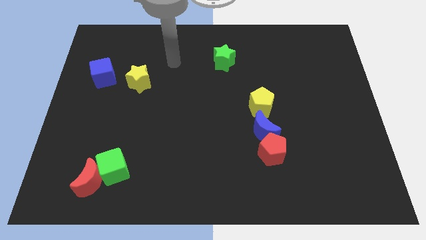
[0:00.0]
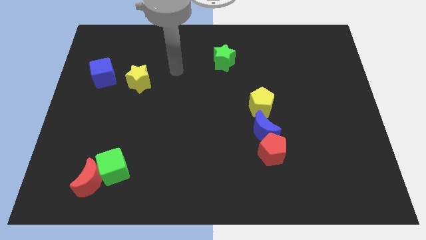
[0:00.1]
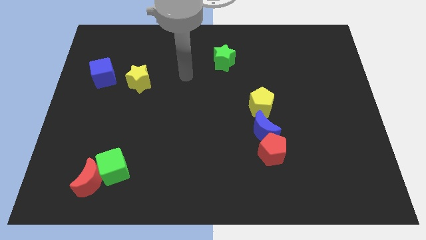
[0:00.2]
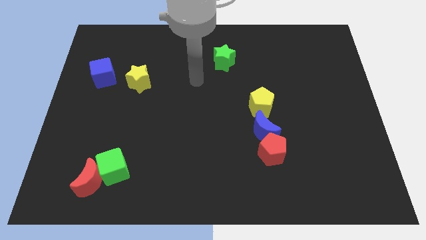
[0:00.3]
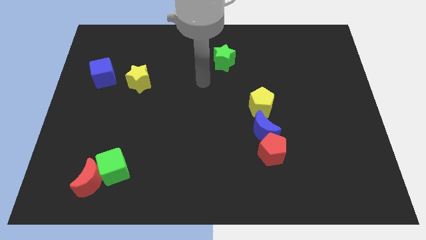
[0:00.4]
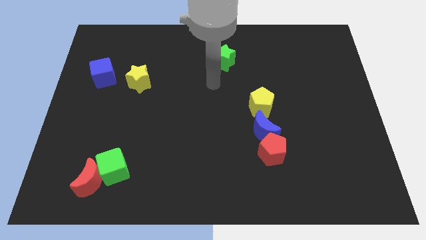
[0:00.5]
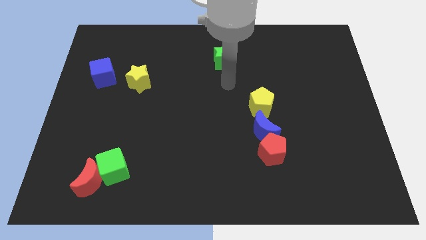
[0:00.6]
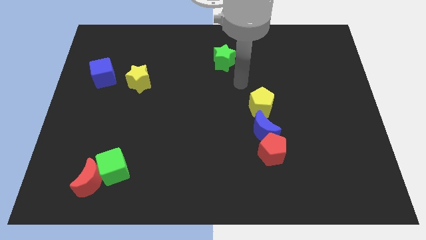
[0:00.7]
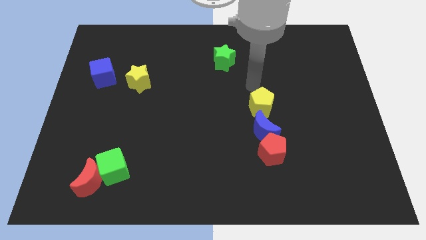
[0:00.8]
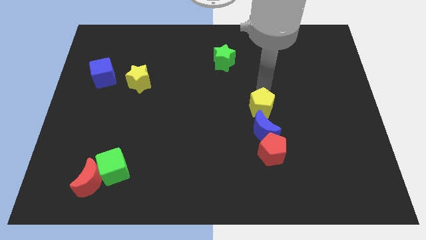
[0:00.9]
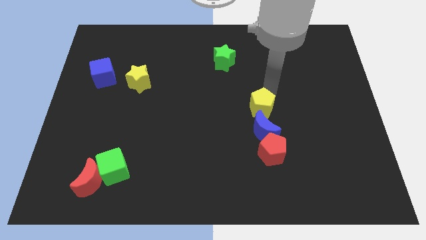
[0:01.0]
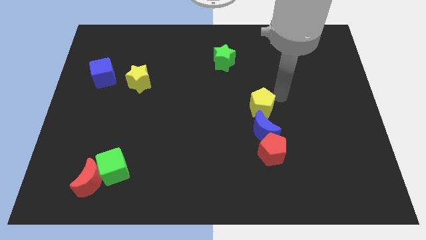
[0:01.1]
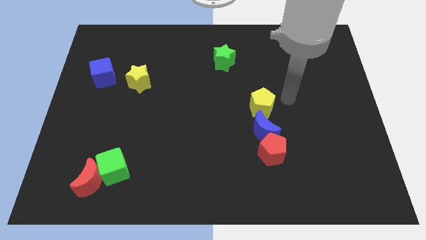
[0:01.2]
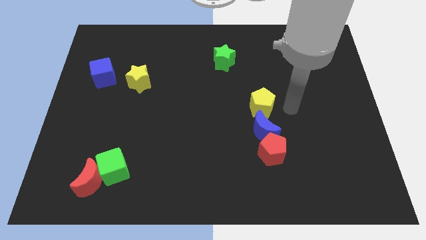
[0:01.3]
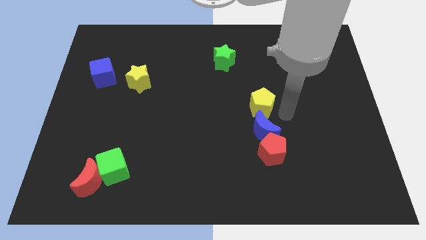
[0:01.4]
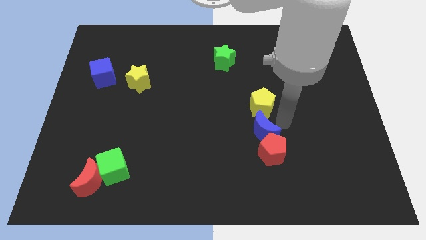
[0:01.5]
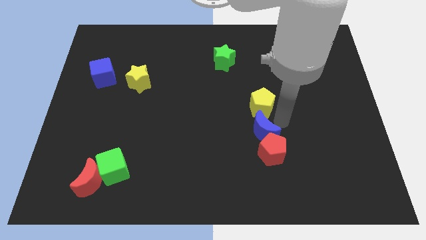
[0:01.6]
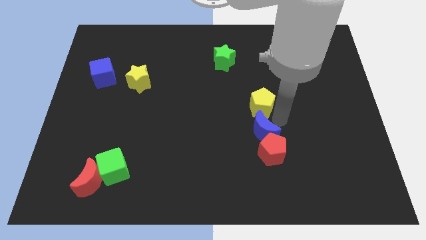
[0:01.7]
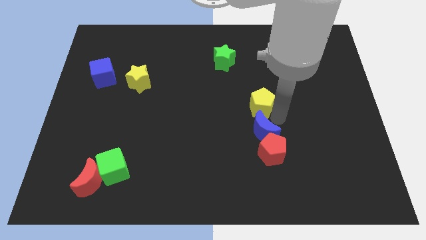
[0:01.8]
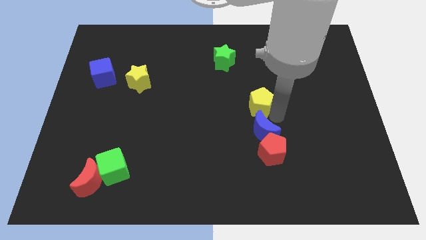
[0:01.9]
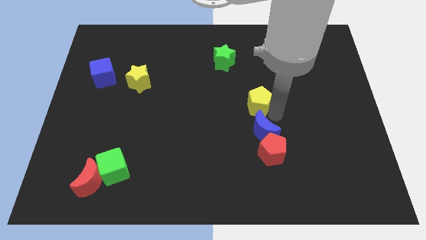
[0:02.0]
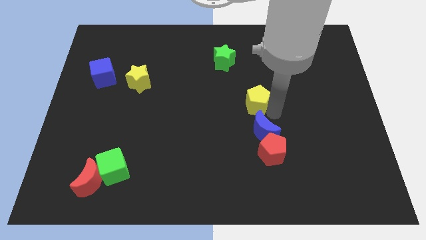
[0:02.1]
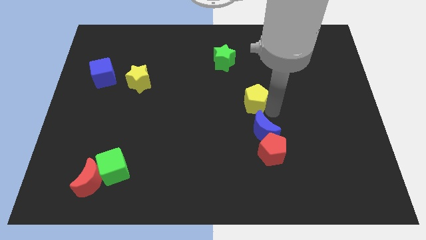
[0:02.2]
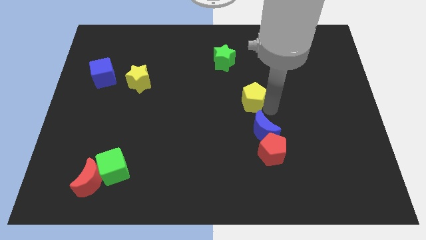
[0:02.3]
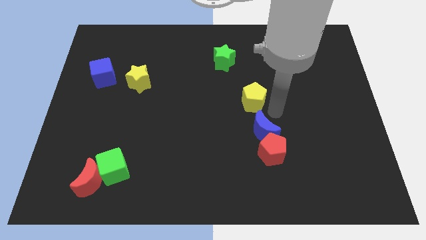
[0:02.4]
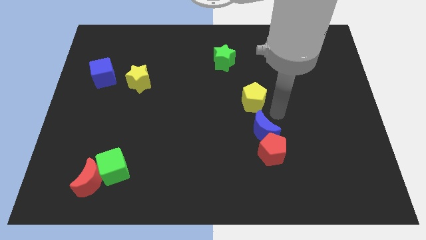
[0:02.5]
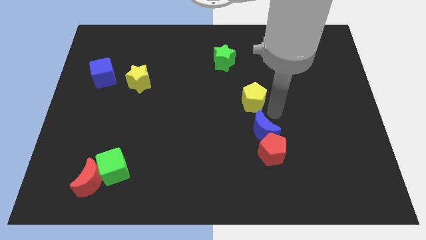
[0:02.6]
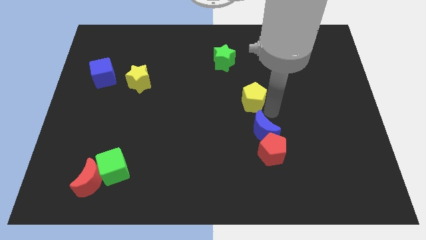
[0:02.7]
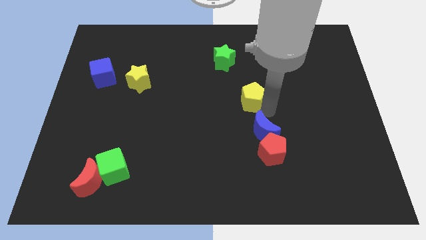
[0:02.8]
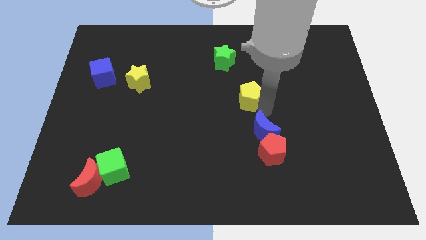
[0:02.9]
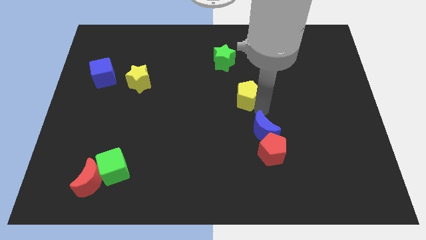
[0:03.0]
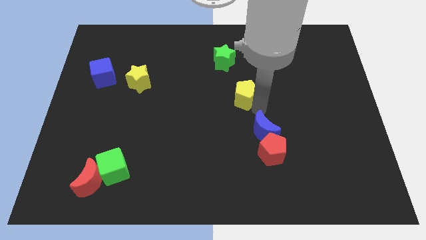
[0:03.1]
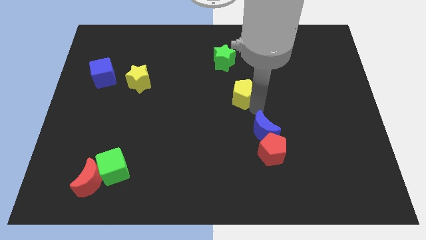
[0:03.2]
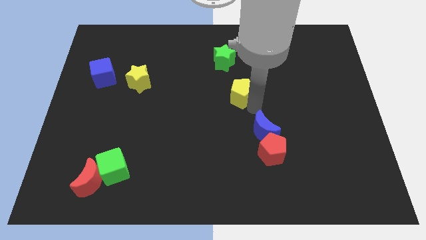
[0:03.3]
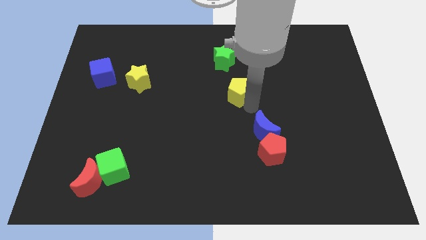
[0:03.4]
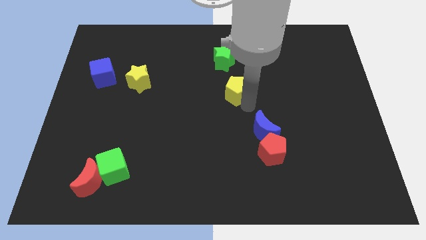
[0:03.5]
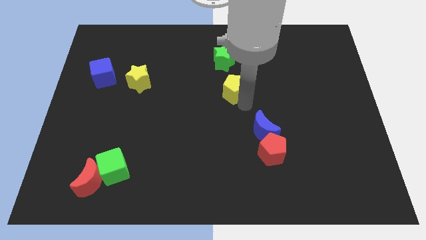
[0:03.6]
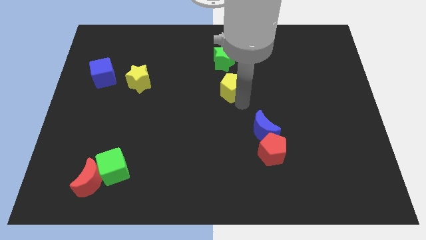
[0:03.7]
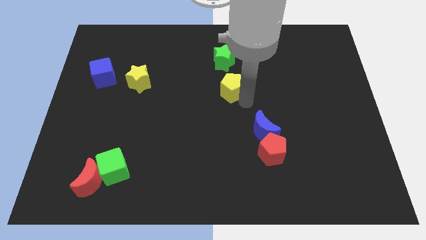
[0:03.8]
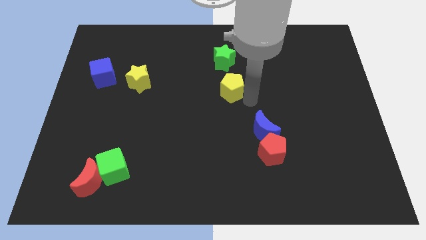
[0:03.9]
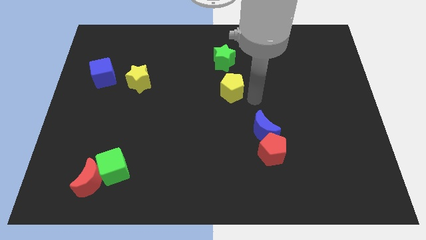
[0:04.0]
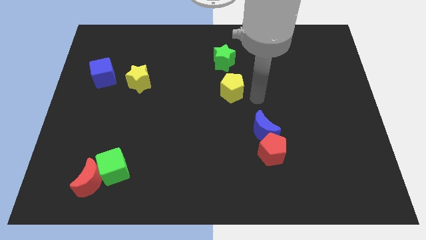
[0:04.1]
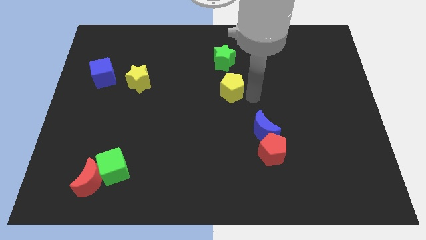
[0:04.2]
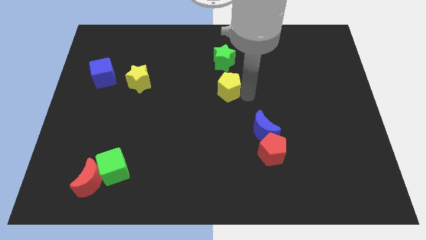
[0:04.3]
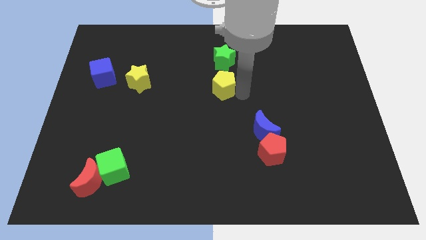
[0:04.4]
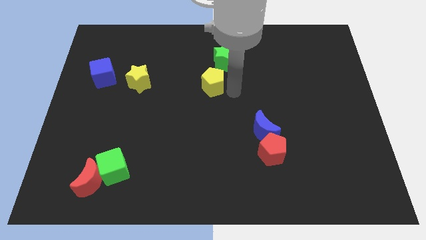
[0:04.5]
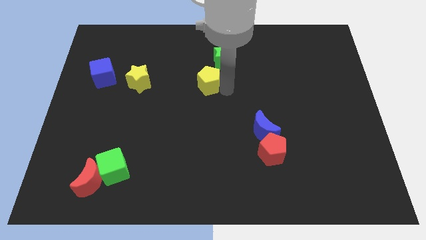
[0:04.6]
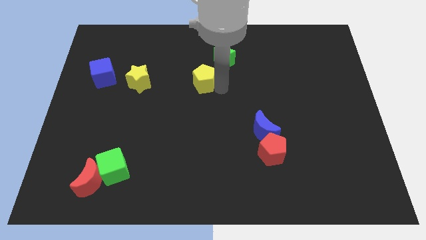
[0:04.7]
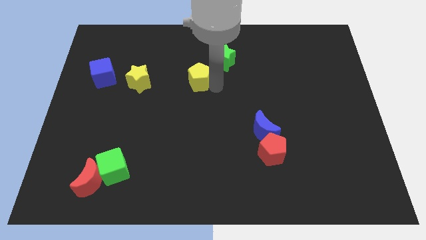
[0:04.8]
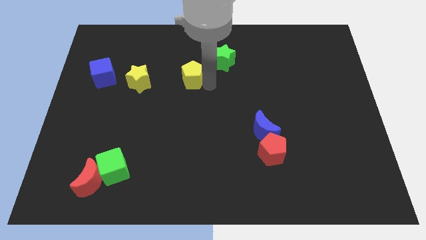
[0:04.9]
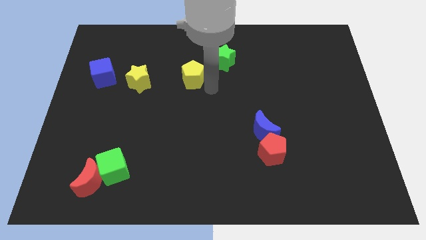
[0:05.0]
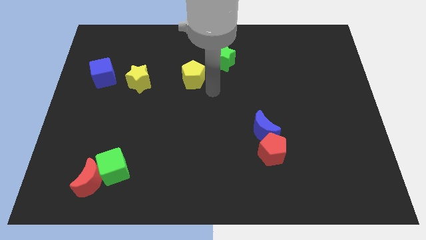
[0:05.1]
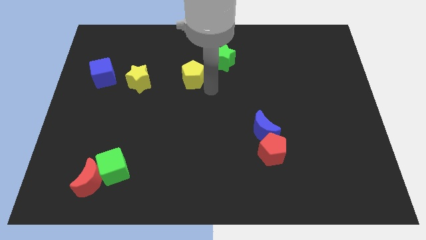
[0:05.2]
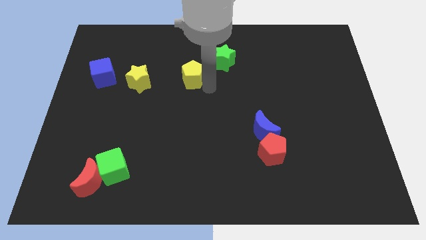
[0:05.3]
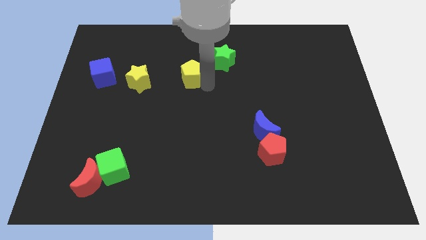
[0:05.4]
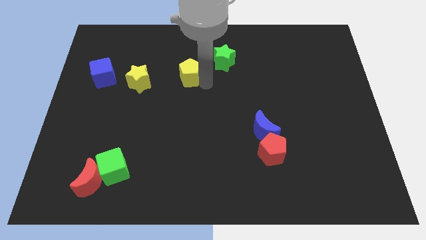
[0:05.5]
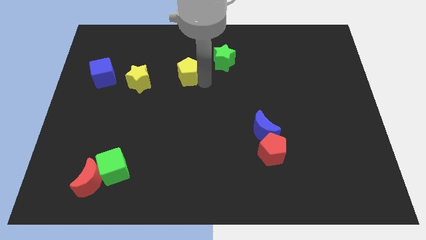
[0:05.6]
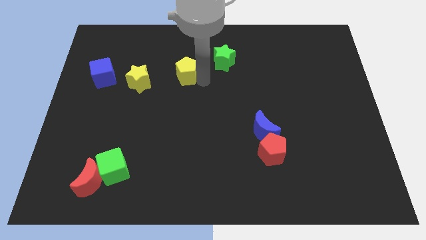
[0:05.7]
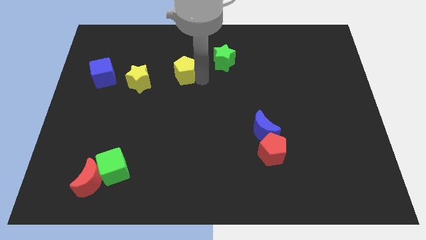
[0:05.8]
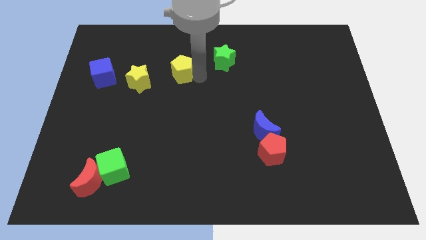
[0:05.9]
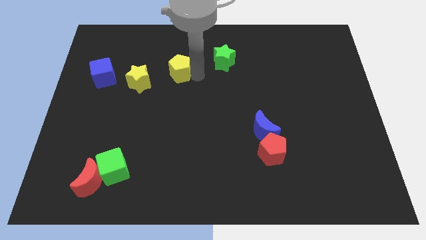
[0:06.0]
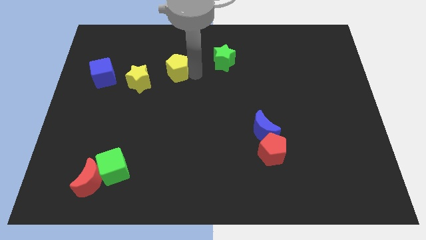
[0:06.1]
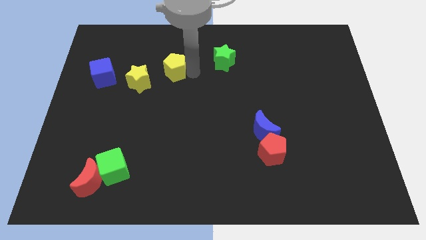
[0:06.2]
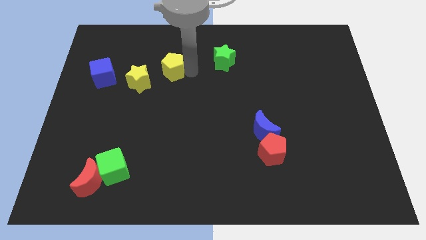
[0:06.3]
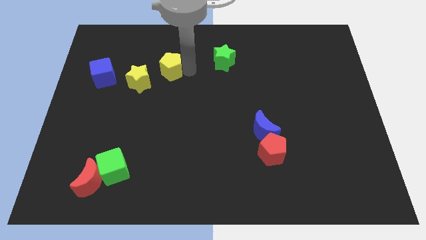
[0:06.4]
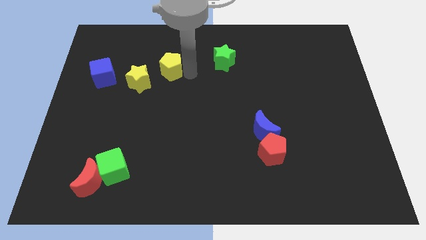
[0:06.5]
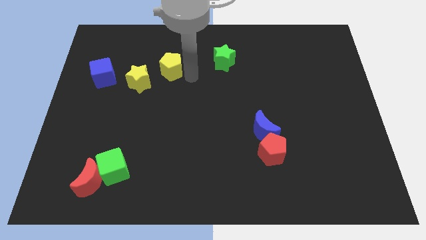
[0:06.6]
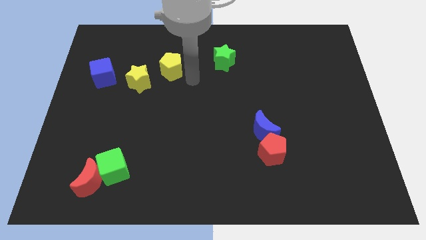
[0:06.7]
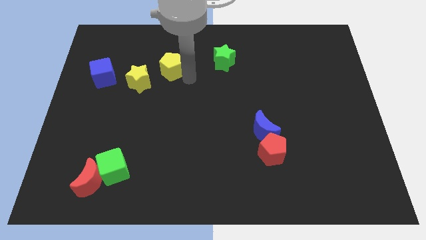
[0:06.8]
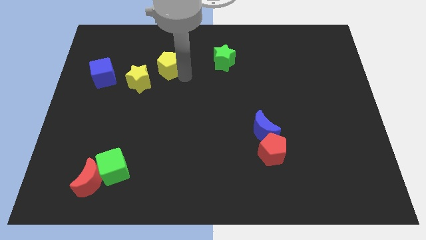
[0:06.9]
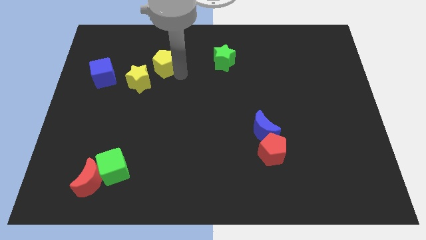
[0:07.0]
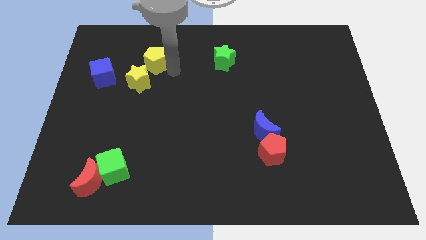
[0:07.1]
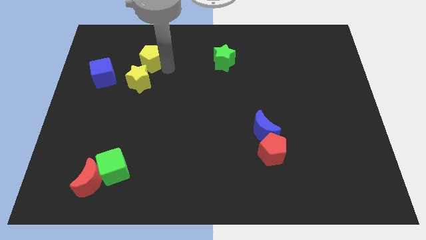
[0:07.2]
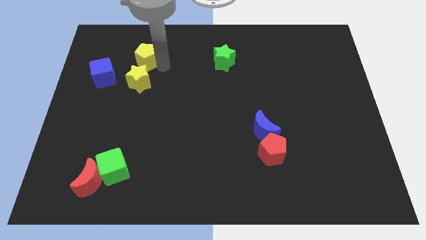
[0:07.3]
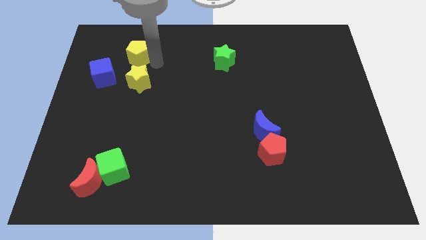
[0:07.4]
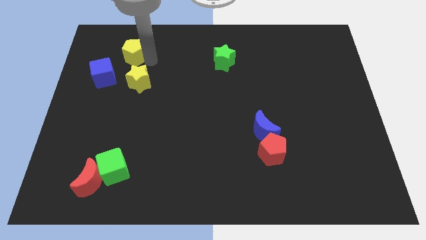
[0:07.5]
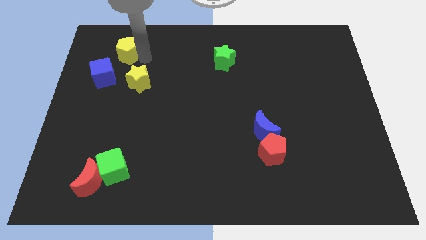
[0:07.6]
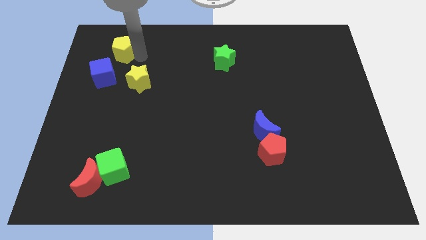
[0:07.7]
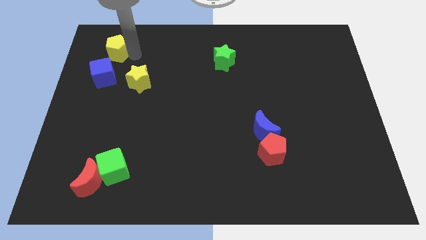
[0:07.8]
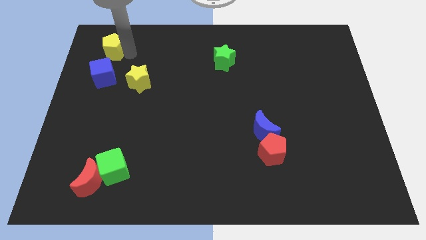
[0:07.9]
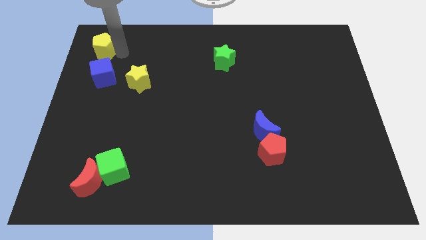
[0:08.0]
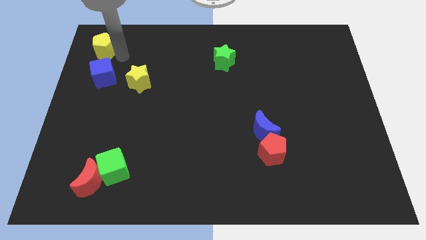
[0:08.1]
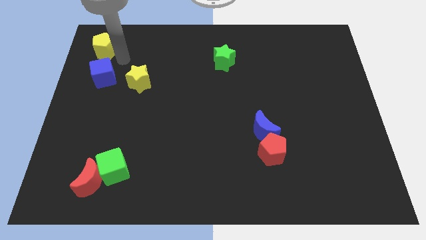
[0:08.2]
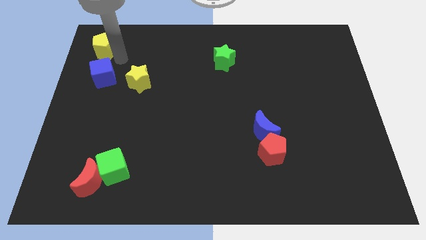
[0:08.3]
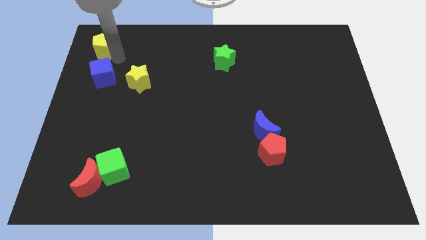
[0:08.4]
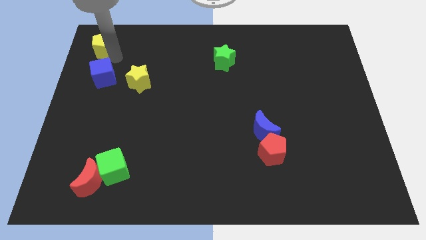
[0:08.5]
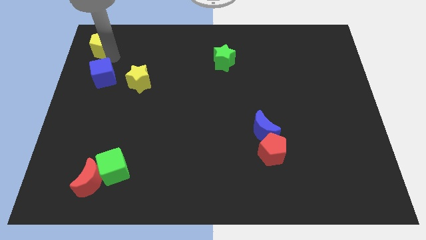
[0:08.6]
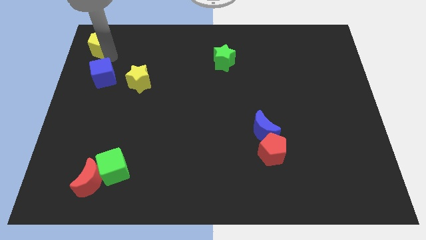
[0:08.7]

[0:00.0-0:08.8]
move the yellow pentagon to the top left
